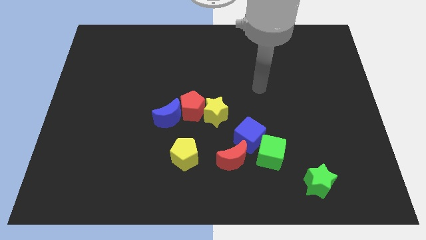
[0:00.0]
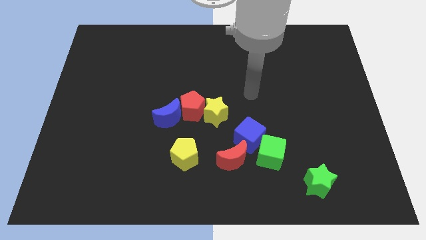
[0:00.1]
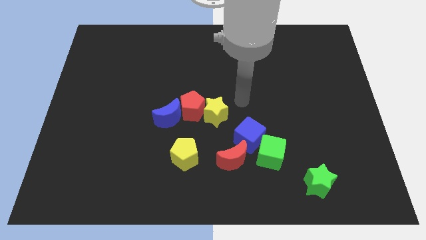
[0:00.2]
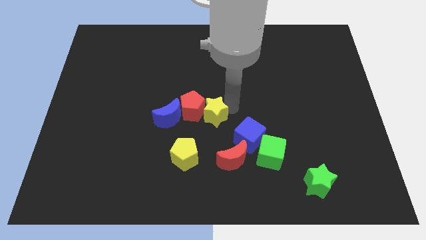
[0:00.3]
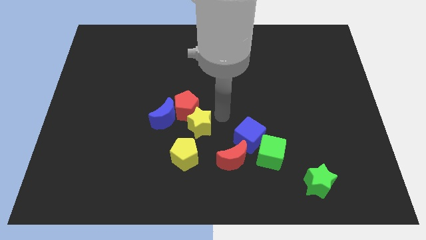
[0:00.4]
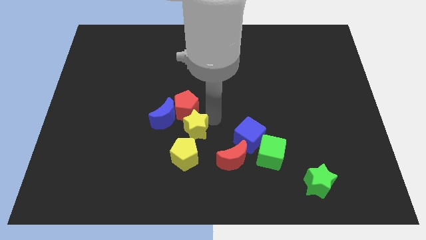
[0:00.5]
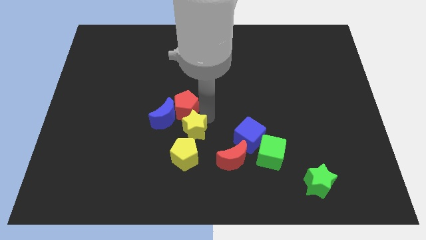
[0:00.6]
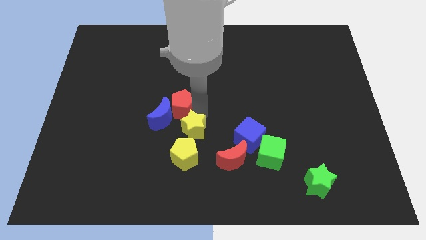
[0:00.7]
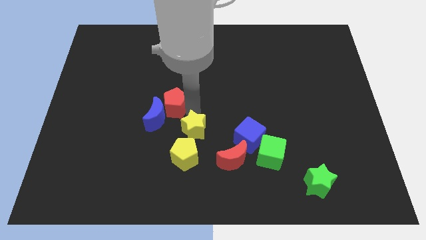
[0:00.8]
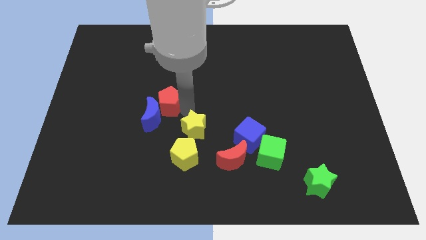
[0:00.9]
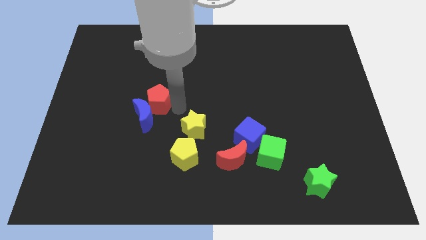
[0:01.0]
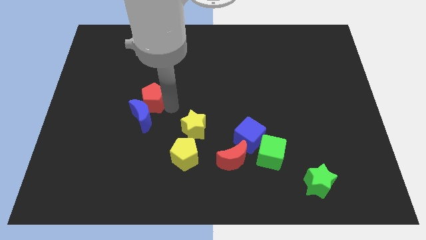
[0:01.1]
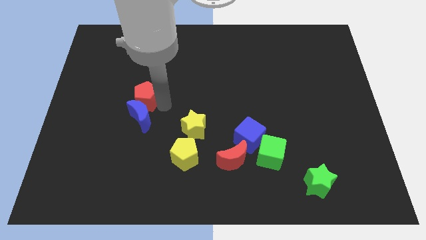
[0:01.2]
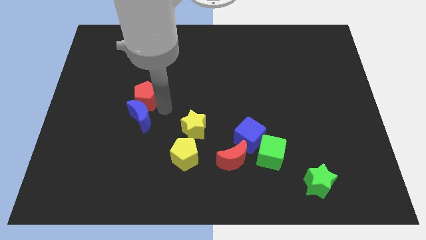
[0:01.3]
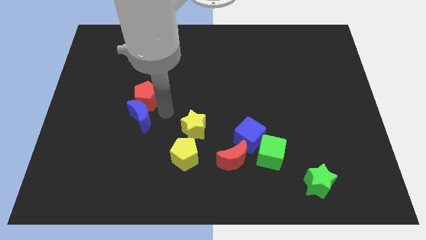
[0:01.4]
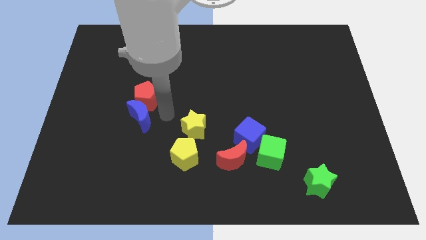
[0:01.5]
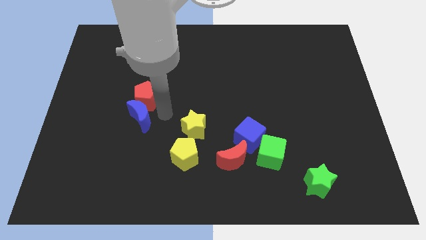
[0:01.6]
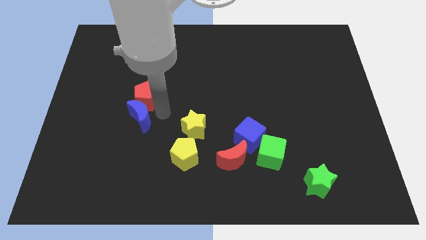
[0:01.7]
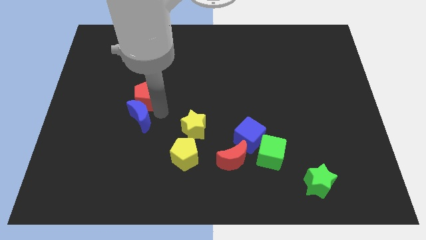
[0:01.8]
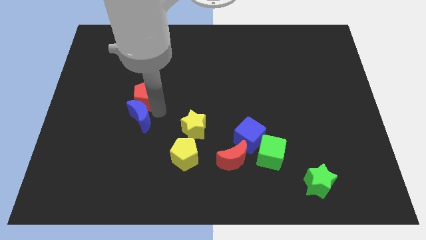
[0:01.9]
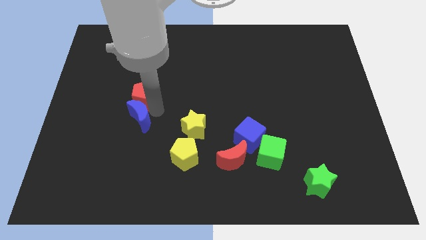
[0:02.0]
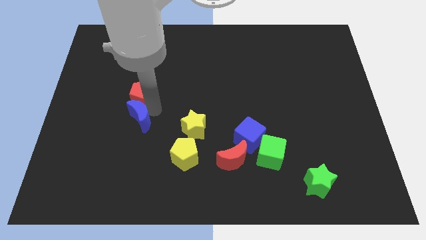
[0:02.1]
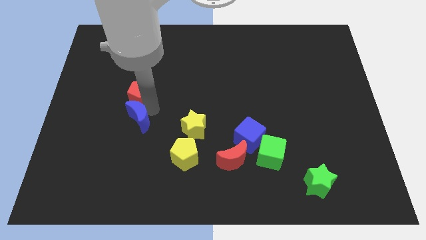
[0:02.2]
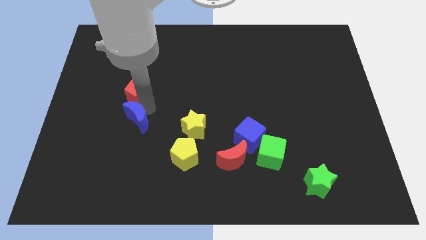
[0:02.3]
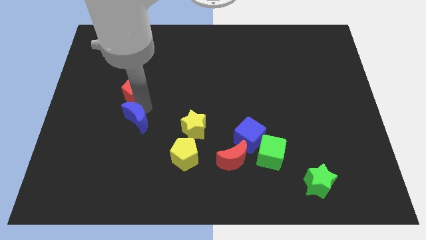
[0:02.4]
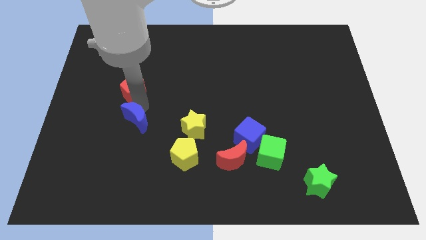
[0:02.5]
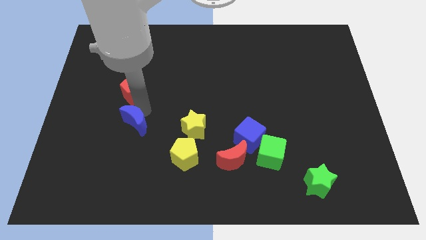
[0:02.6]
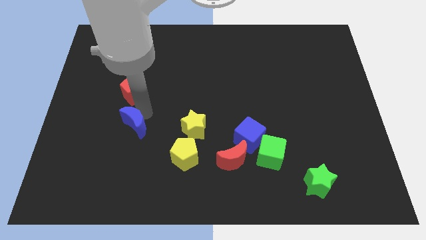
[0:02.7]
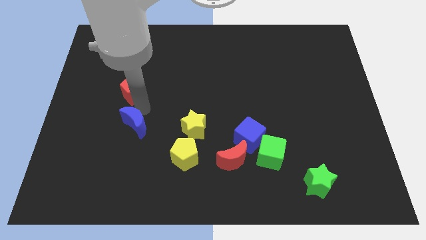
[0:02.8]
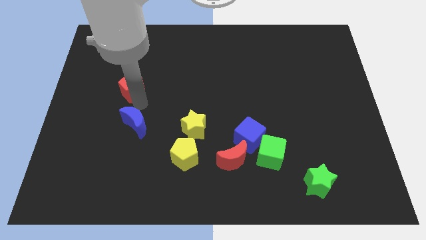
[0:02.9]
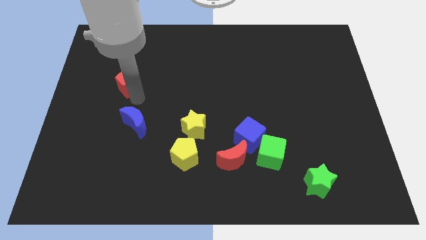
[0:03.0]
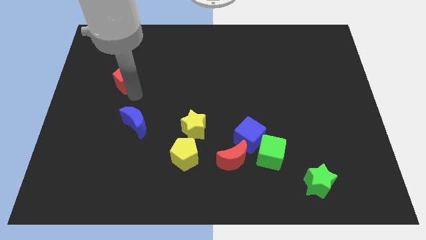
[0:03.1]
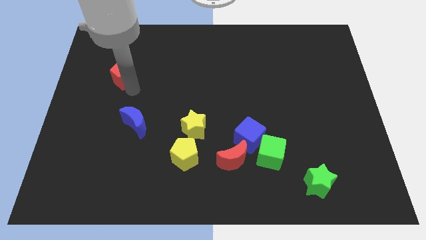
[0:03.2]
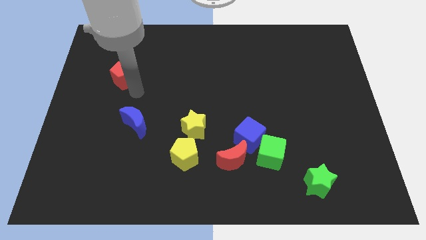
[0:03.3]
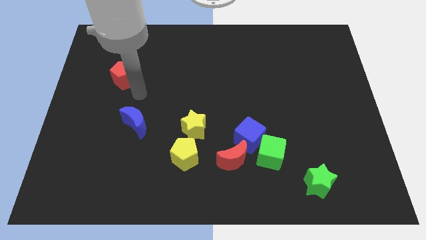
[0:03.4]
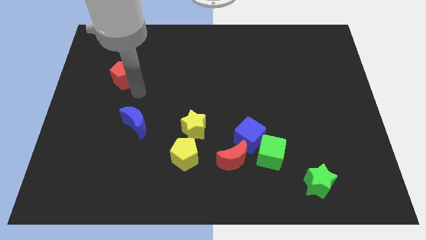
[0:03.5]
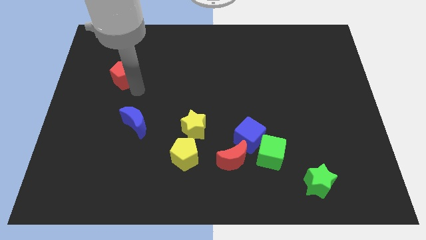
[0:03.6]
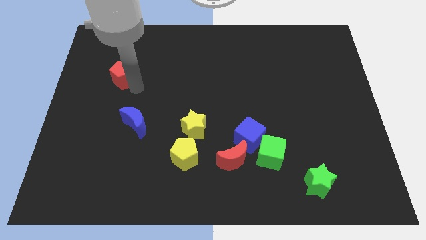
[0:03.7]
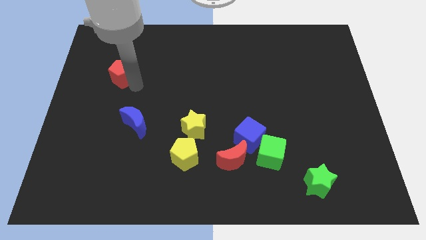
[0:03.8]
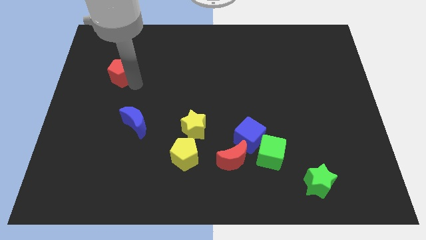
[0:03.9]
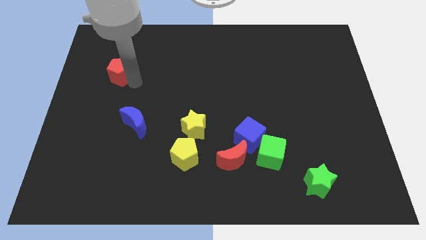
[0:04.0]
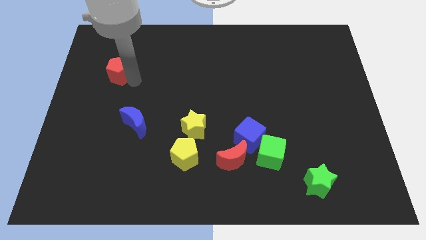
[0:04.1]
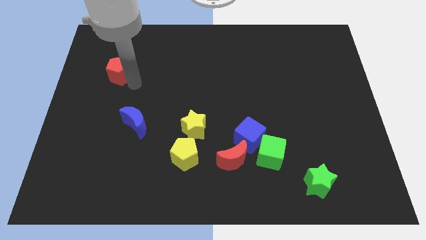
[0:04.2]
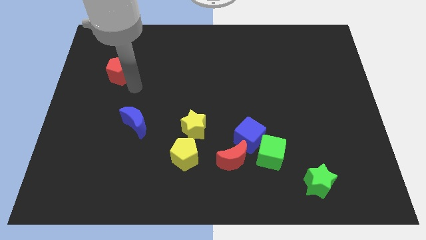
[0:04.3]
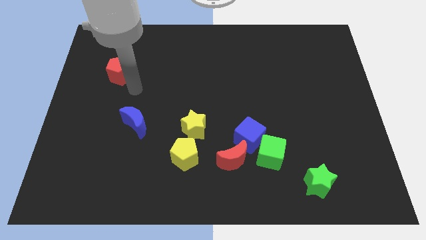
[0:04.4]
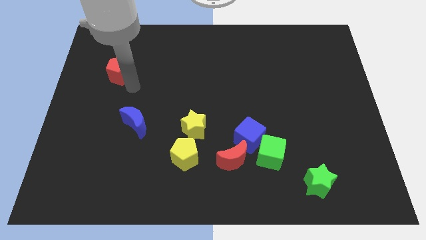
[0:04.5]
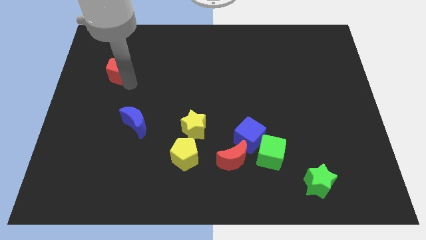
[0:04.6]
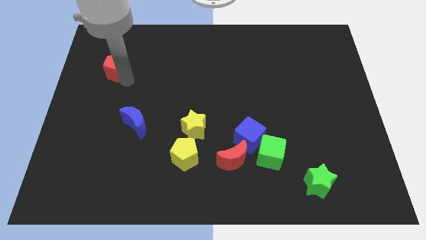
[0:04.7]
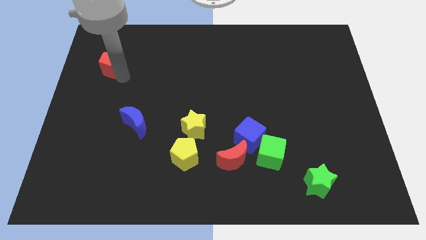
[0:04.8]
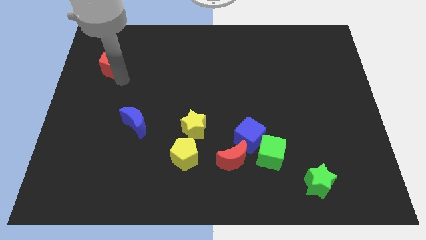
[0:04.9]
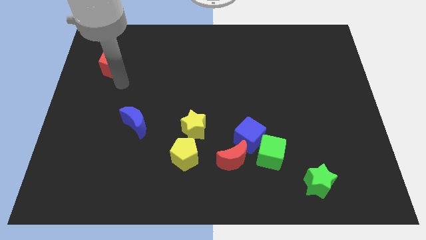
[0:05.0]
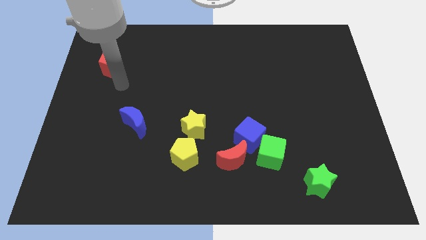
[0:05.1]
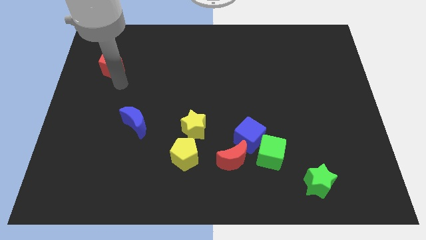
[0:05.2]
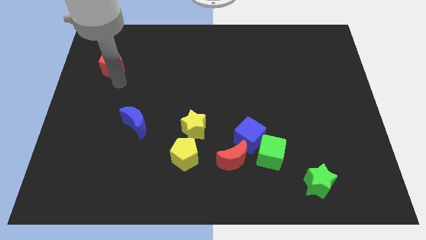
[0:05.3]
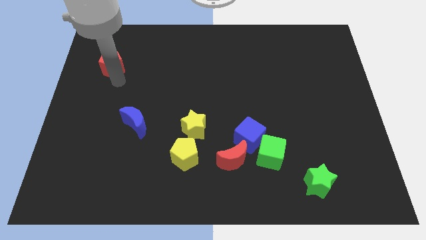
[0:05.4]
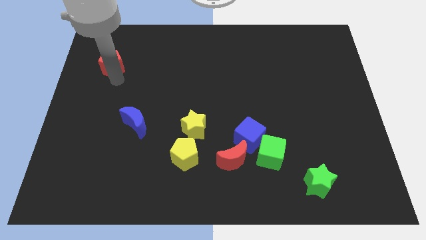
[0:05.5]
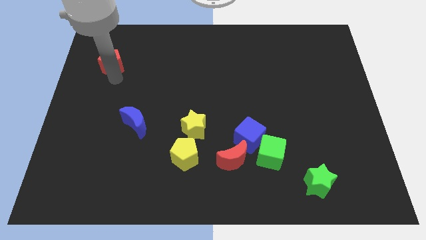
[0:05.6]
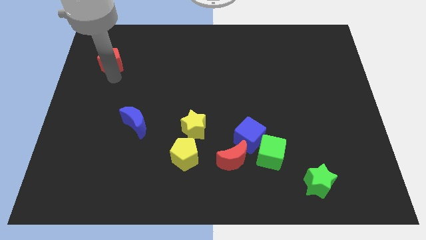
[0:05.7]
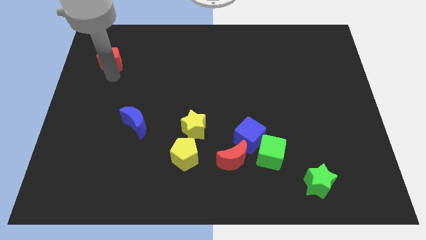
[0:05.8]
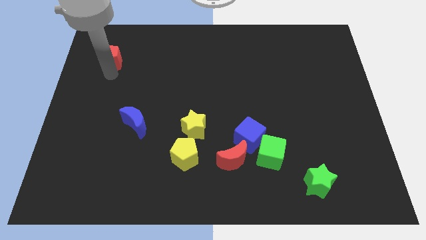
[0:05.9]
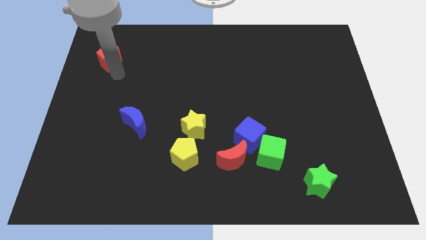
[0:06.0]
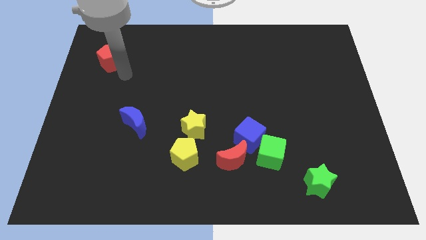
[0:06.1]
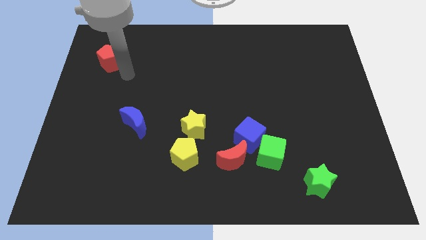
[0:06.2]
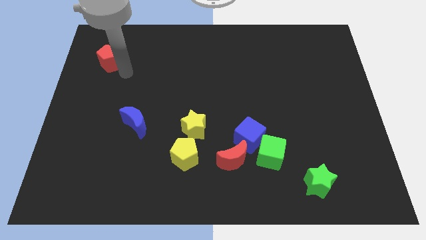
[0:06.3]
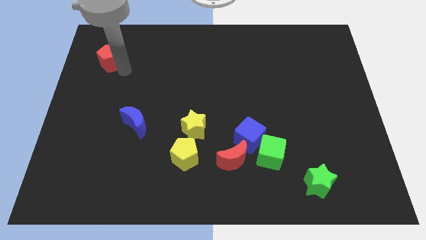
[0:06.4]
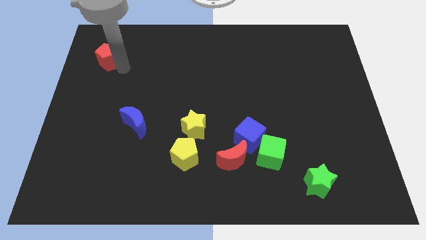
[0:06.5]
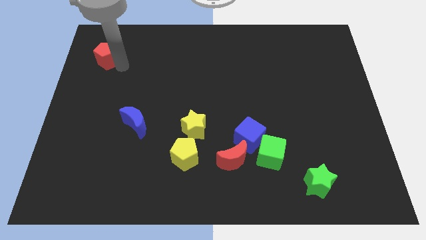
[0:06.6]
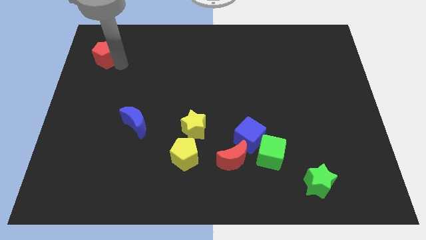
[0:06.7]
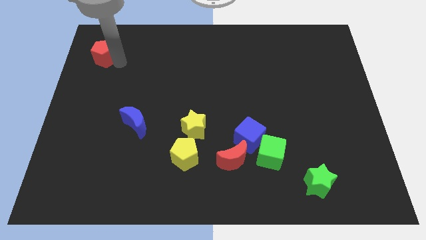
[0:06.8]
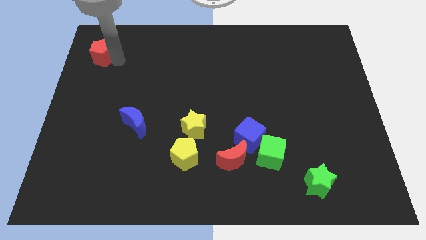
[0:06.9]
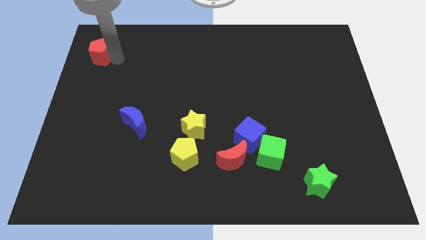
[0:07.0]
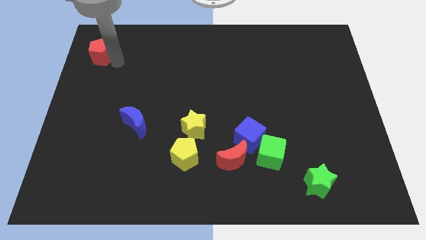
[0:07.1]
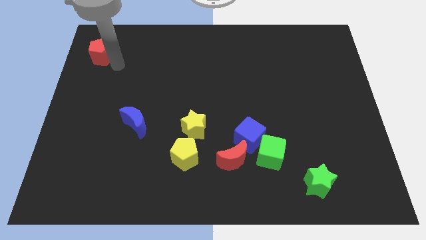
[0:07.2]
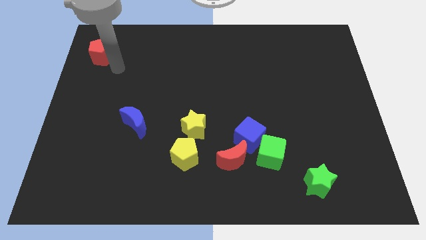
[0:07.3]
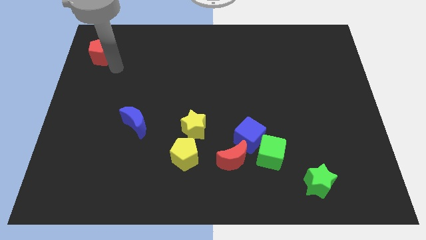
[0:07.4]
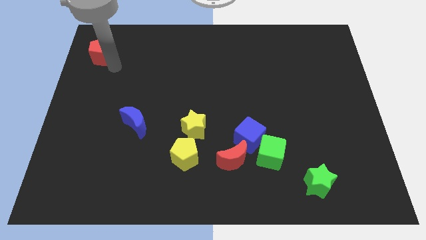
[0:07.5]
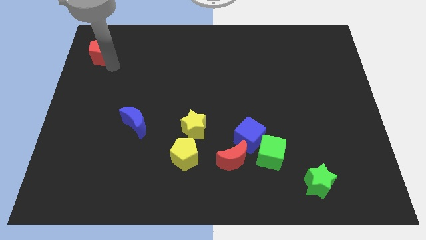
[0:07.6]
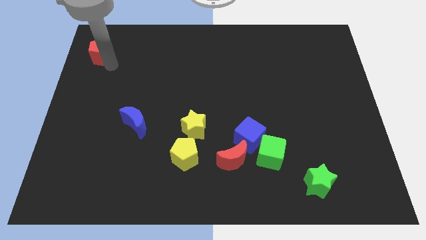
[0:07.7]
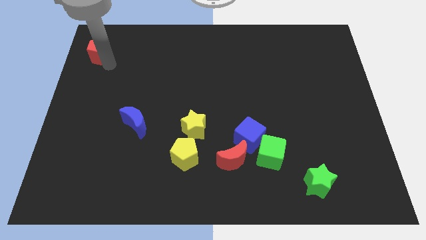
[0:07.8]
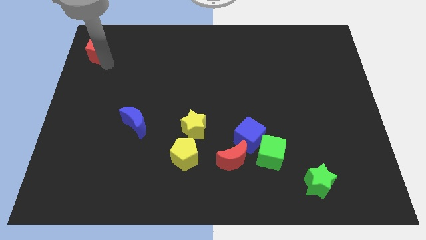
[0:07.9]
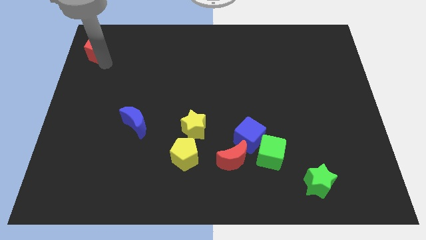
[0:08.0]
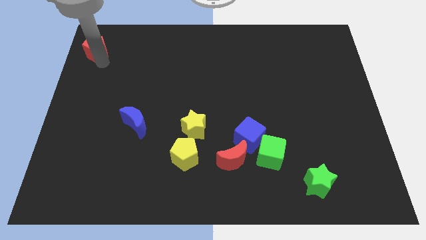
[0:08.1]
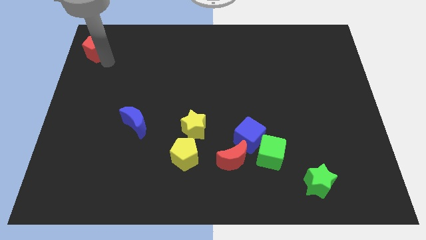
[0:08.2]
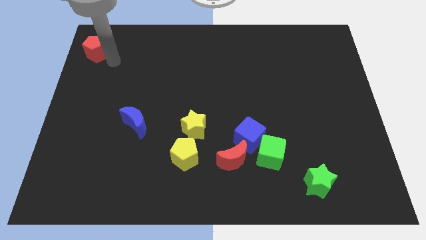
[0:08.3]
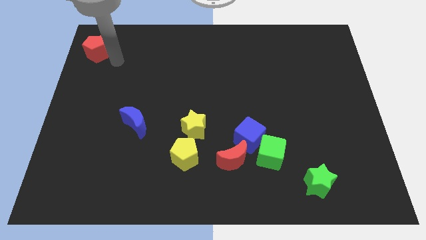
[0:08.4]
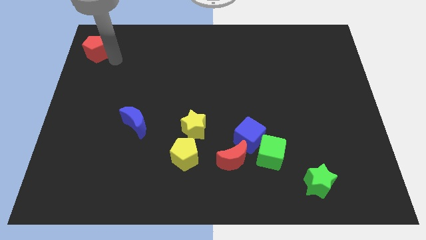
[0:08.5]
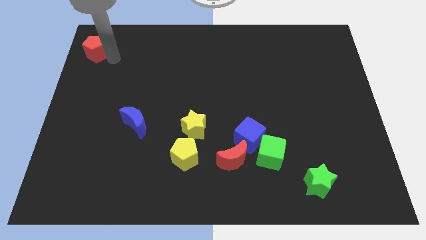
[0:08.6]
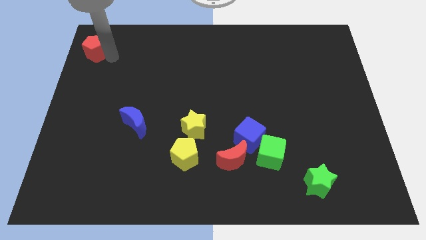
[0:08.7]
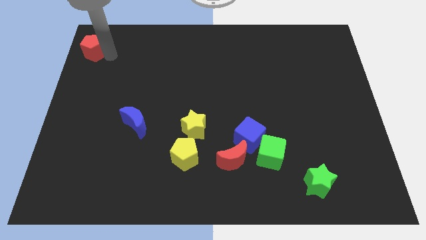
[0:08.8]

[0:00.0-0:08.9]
push the red pentagon to the top left of the board
